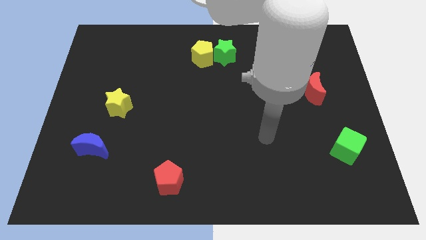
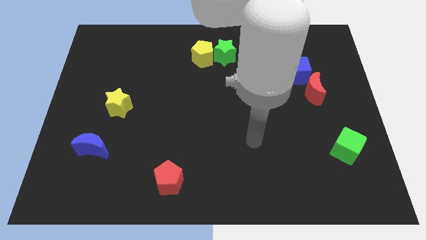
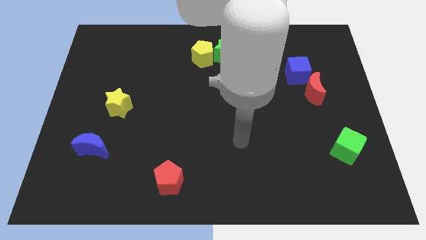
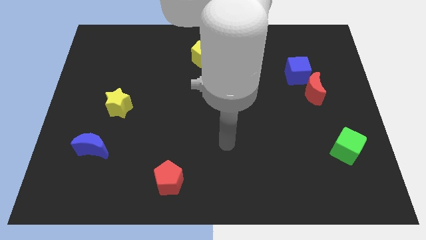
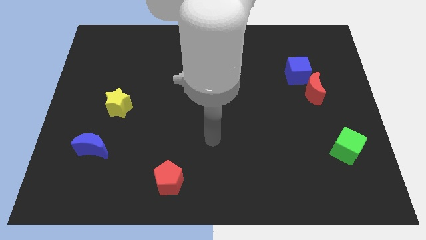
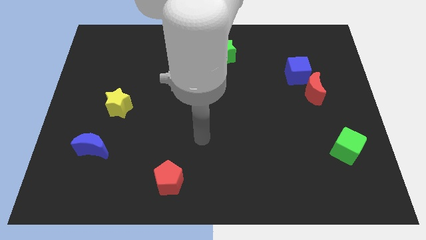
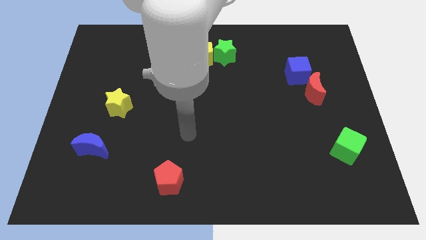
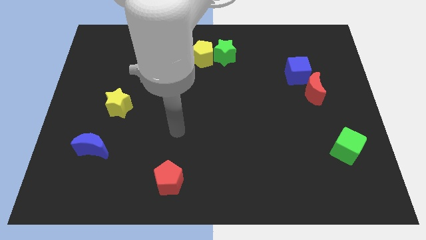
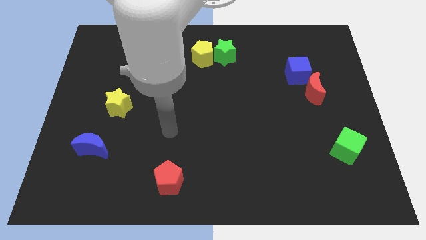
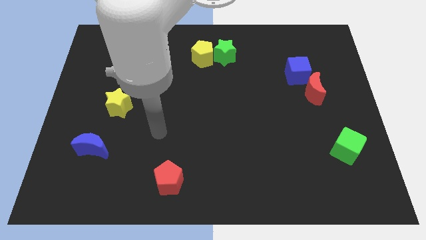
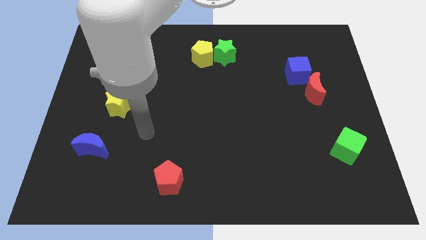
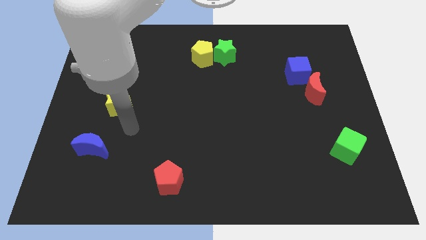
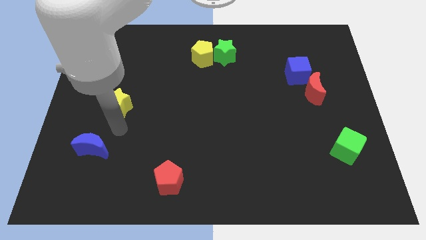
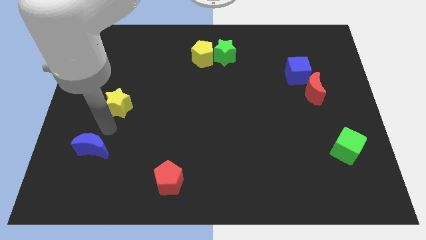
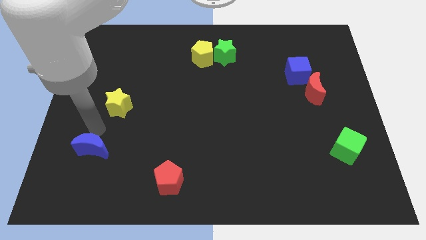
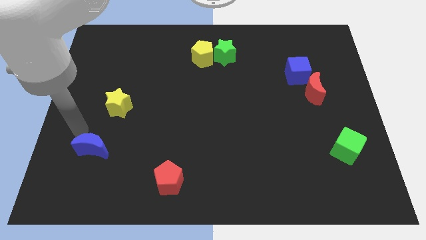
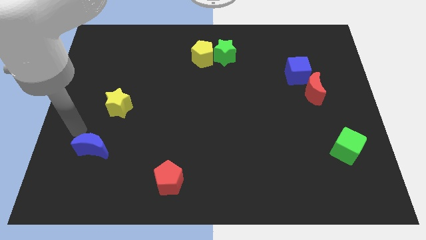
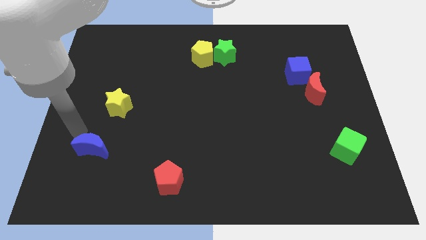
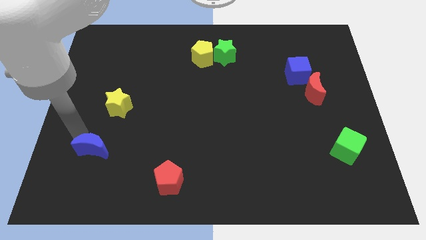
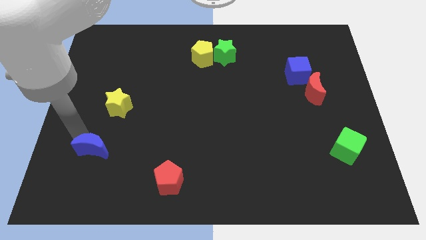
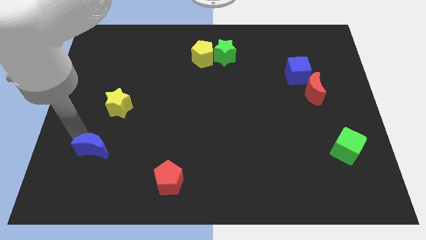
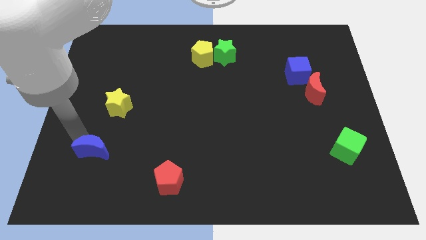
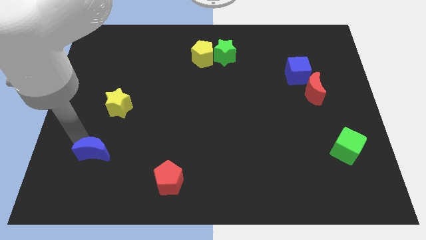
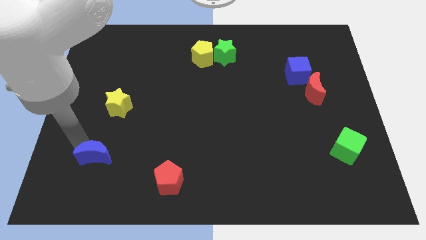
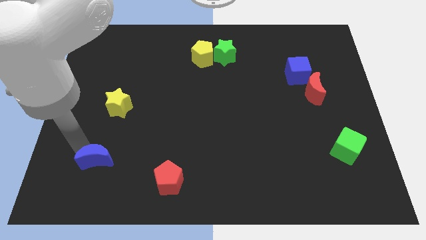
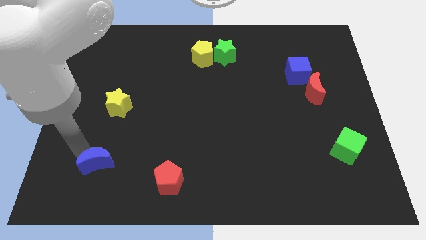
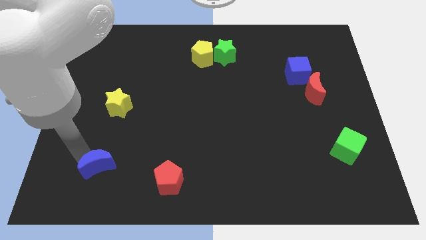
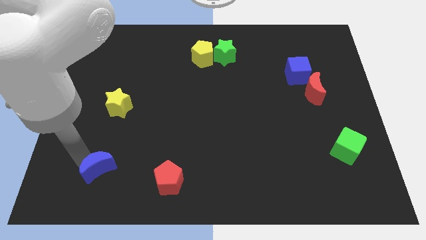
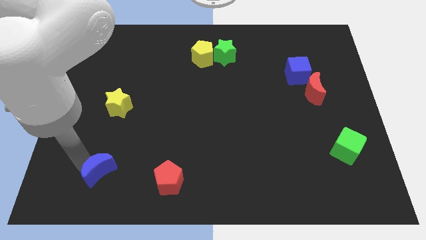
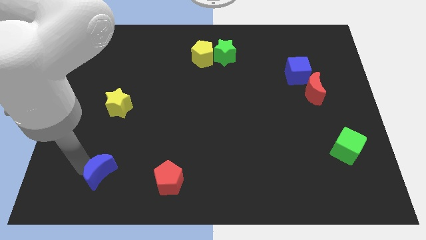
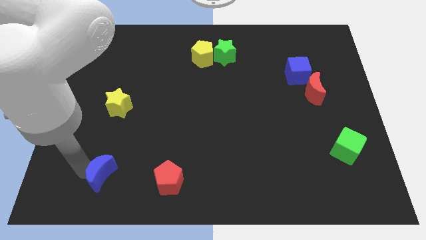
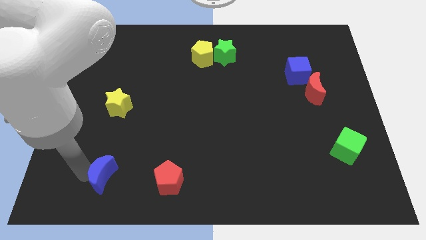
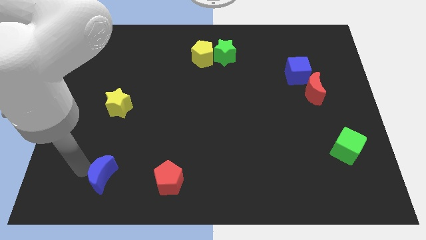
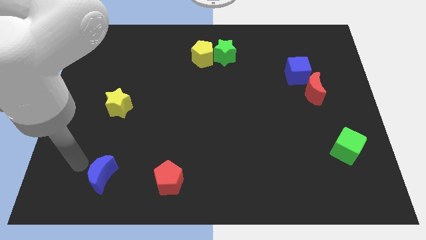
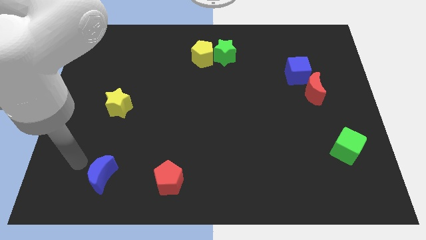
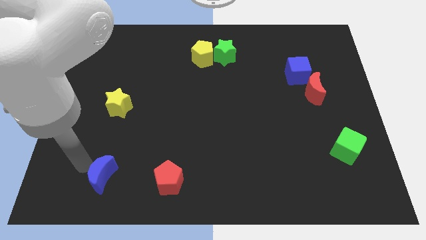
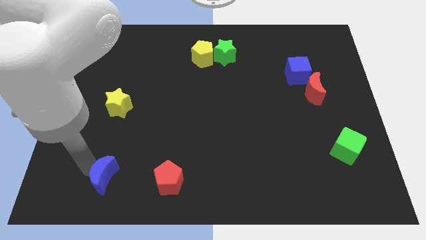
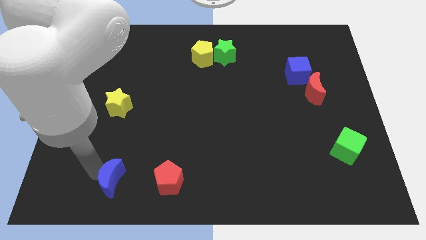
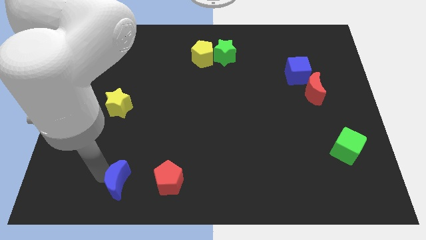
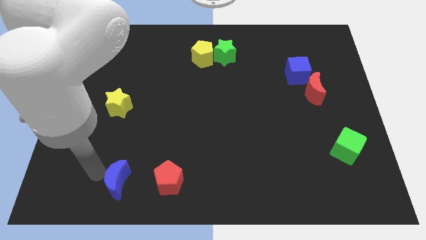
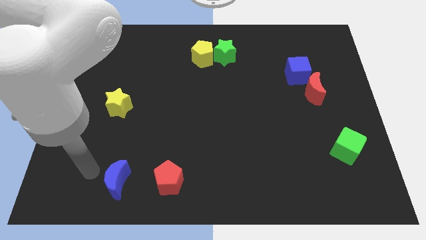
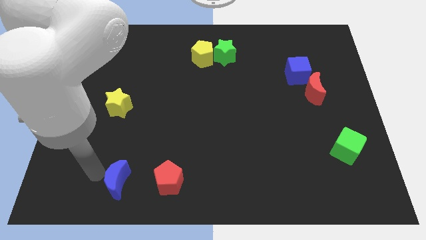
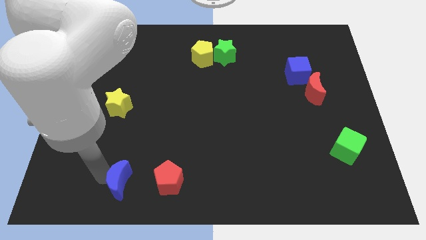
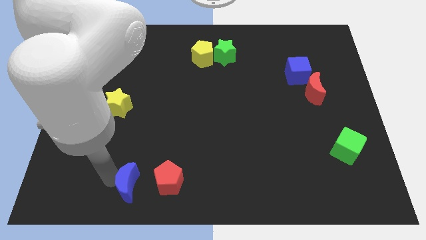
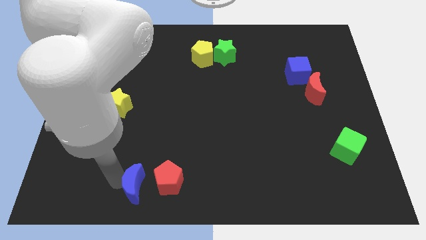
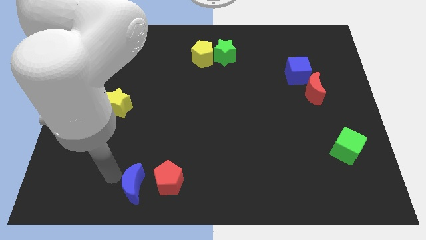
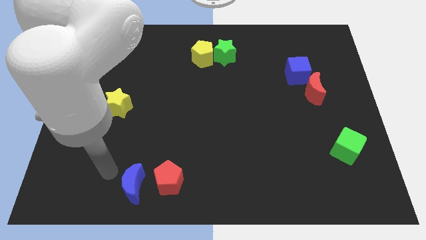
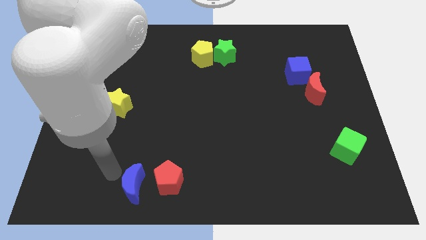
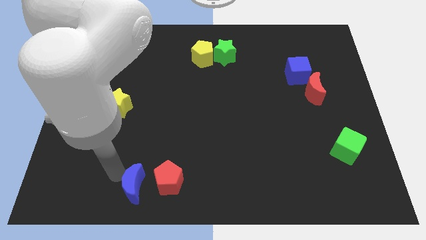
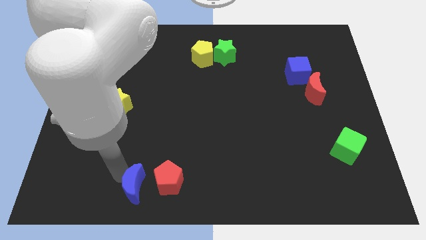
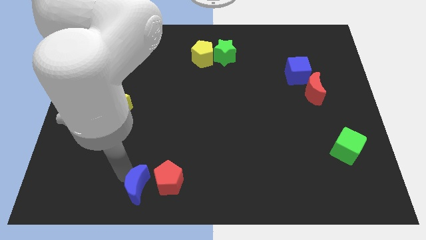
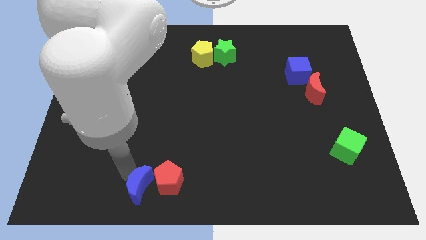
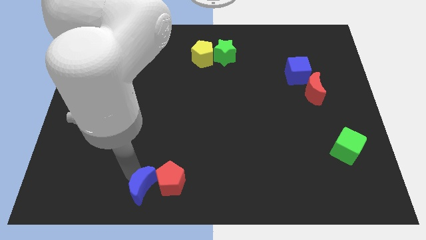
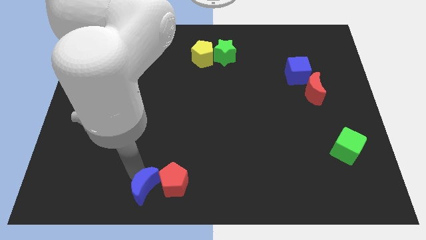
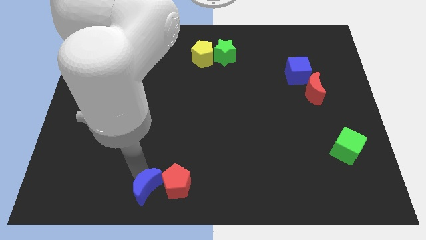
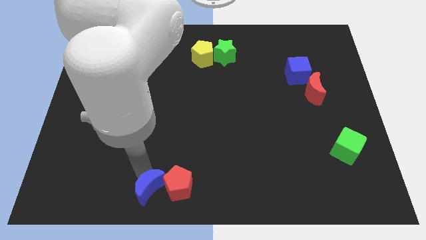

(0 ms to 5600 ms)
slide the blue moon to the bottom

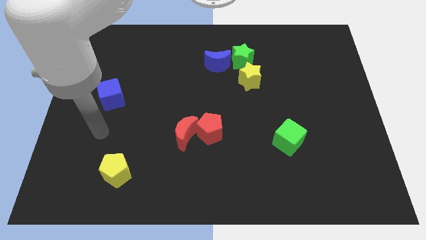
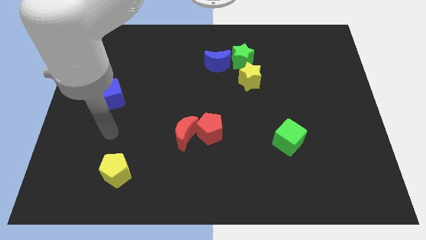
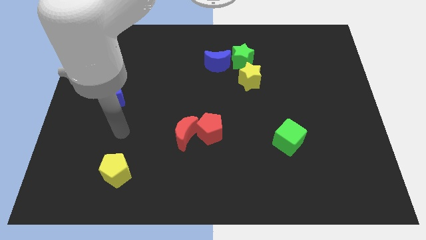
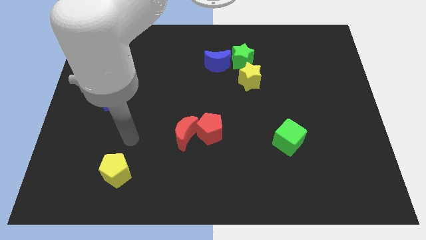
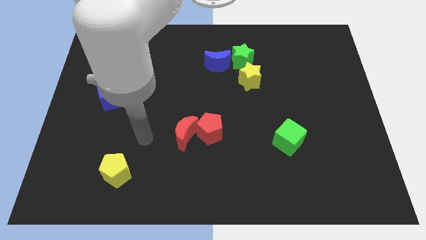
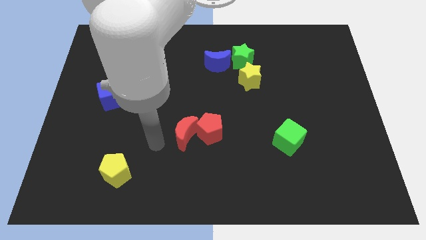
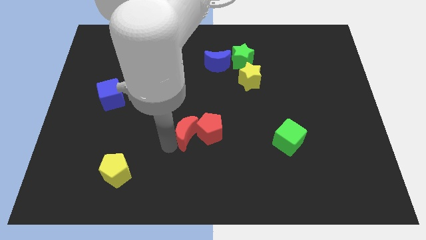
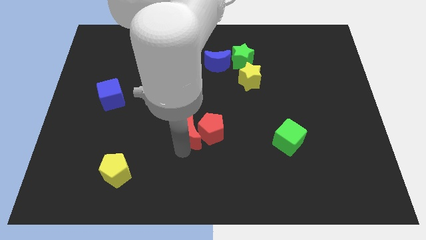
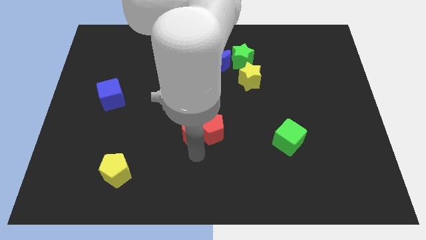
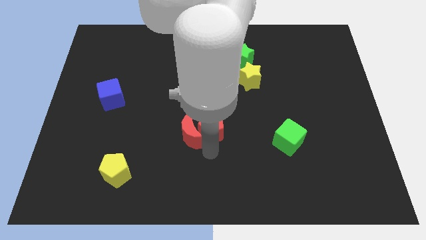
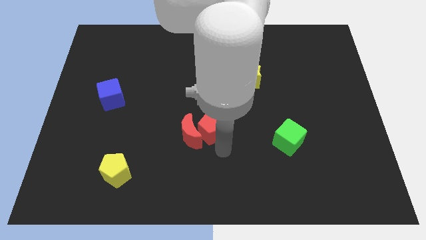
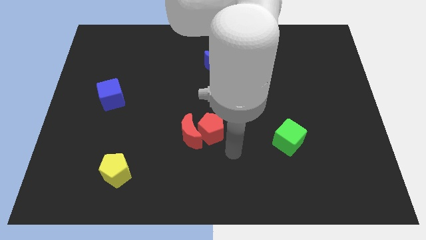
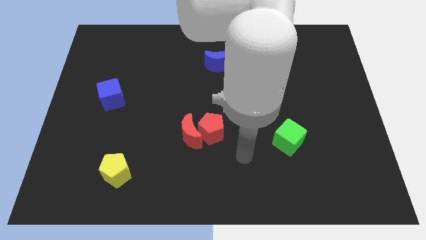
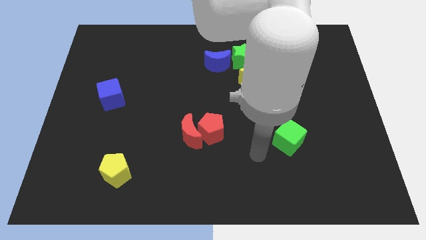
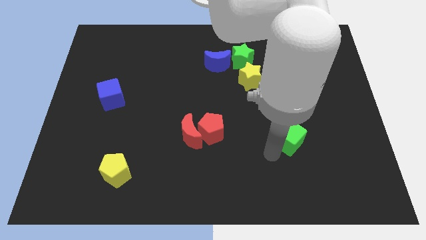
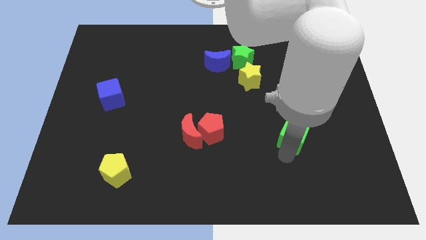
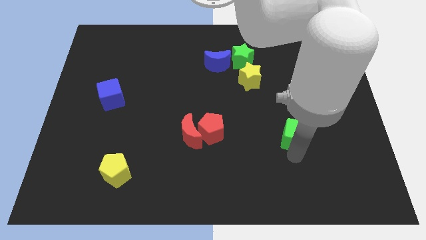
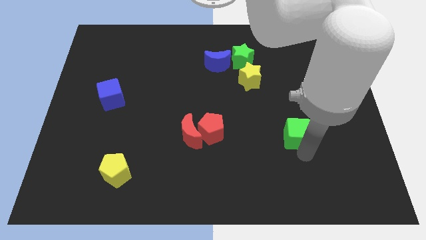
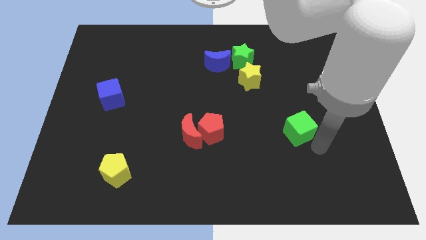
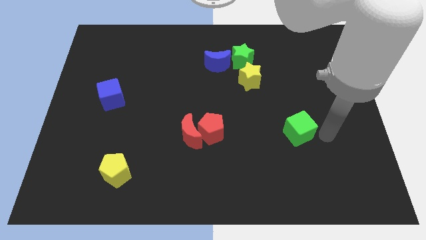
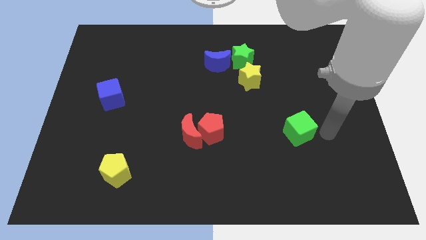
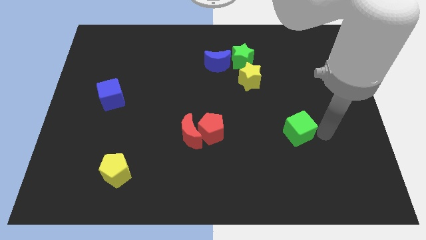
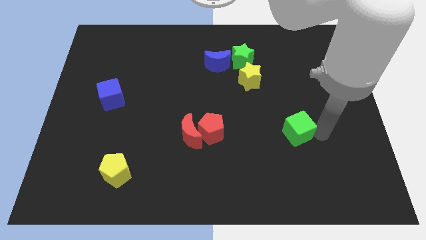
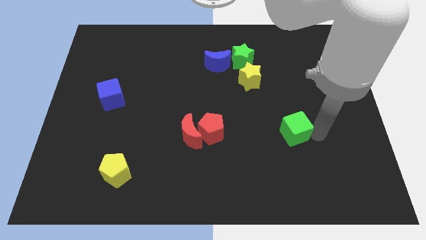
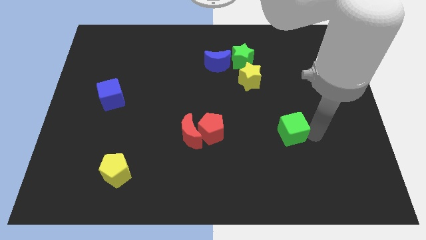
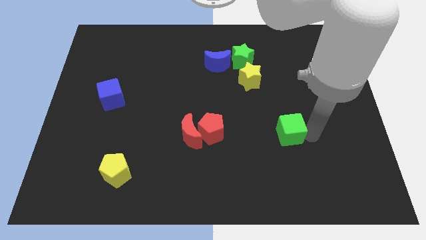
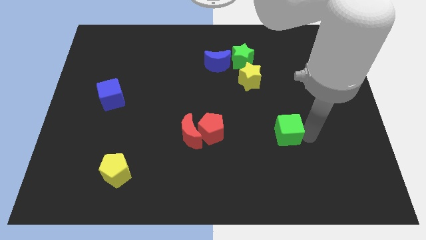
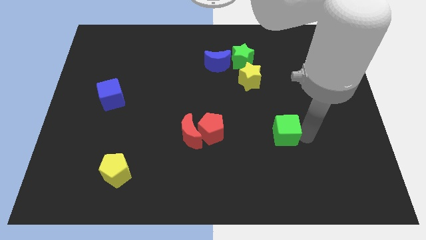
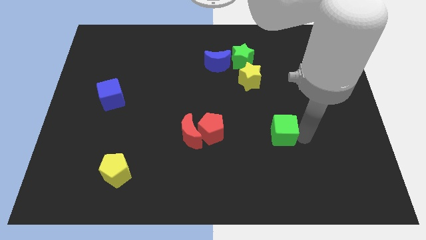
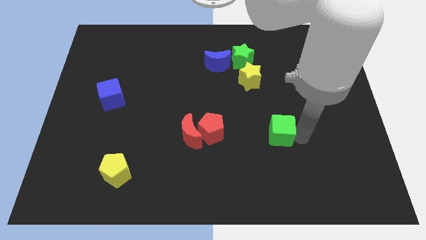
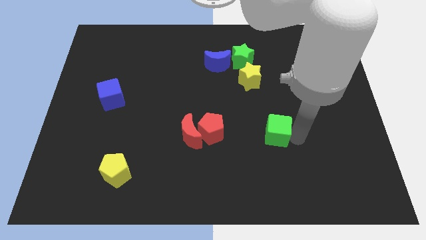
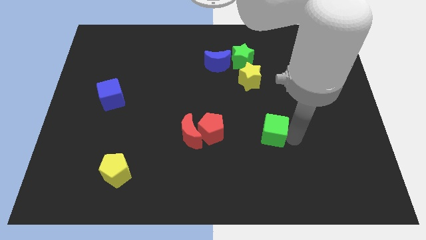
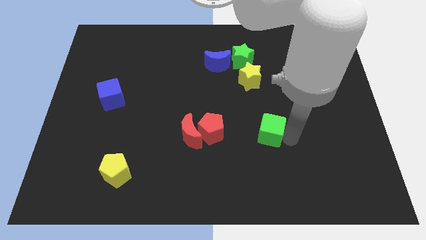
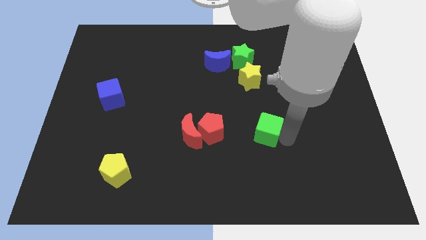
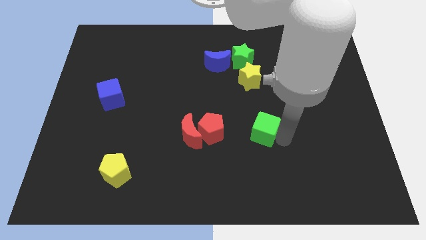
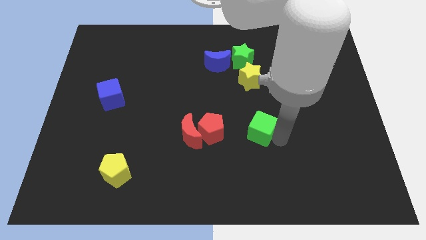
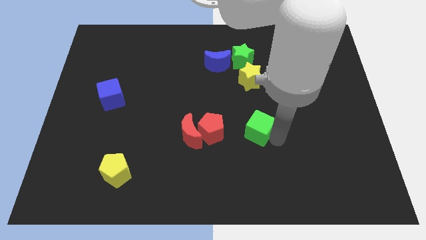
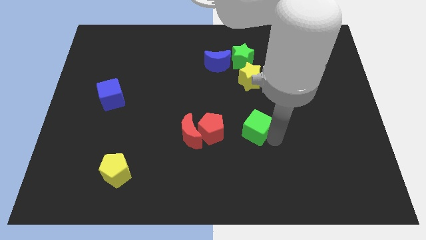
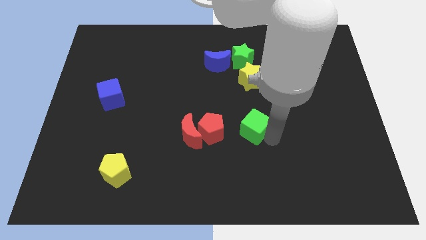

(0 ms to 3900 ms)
push the green cube to the middle
